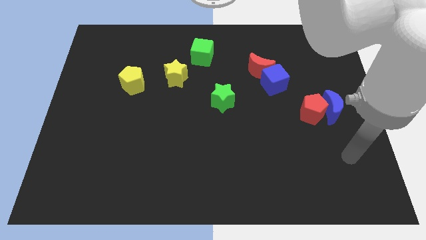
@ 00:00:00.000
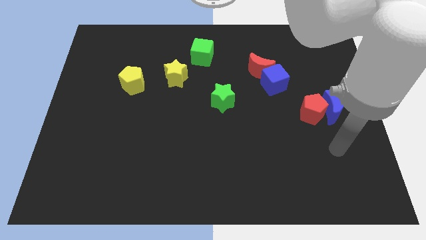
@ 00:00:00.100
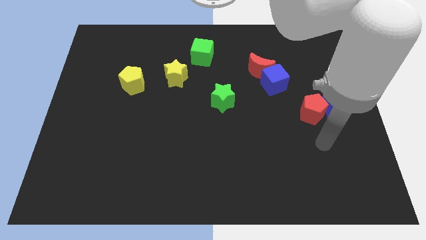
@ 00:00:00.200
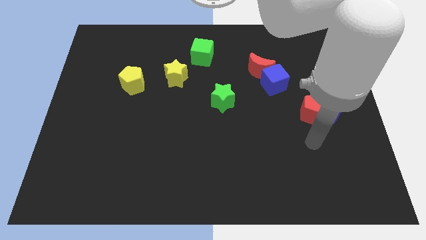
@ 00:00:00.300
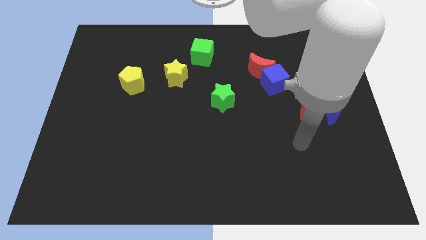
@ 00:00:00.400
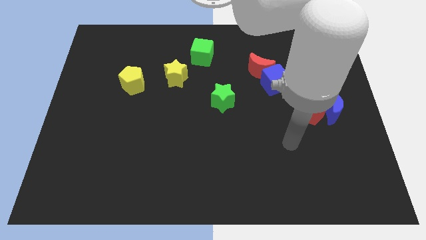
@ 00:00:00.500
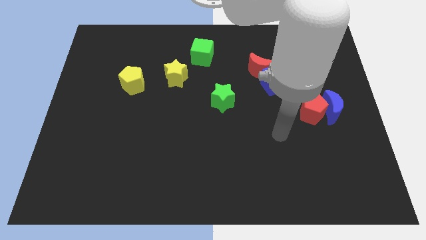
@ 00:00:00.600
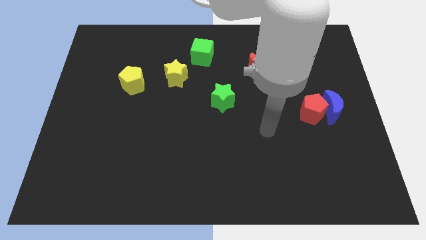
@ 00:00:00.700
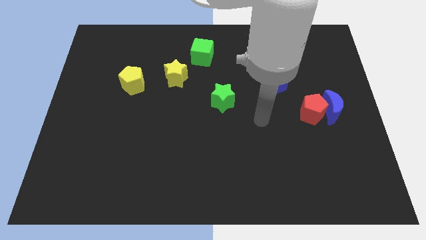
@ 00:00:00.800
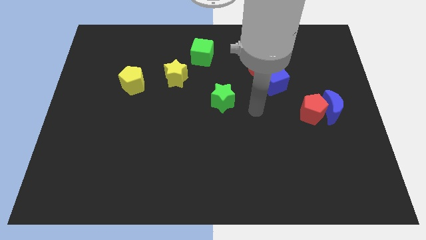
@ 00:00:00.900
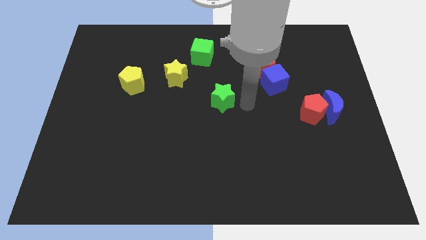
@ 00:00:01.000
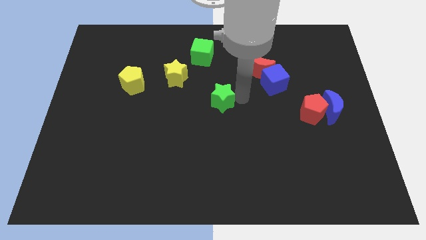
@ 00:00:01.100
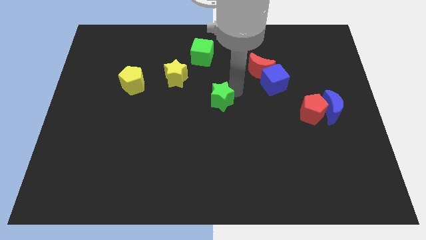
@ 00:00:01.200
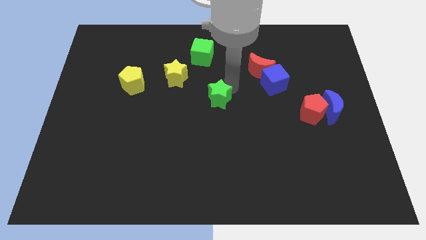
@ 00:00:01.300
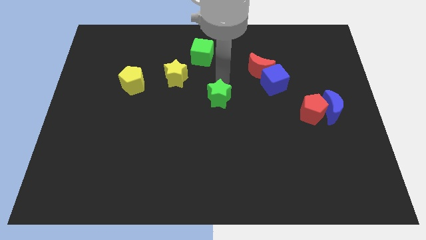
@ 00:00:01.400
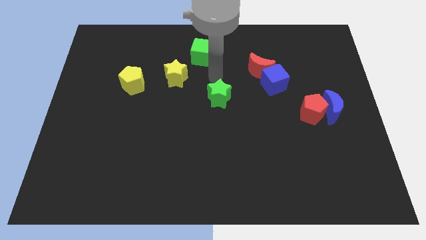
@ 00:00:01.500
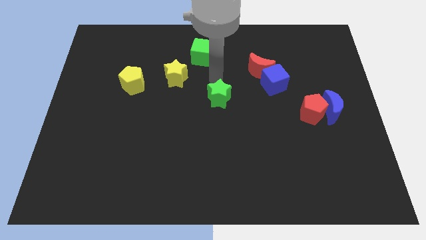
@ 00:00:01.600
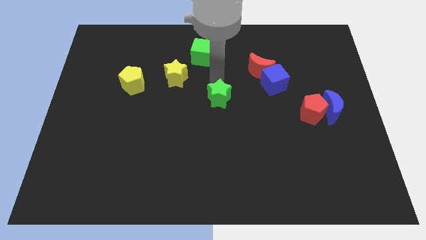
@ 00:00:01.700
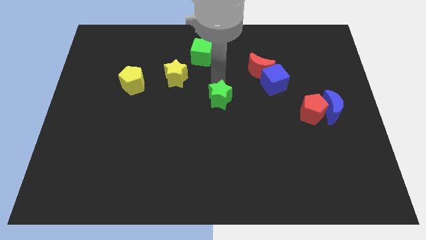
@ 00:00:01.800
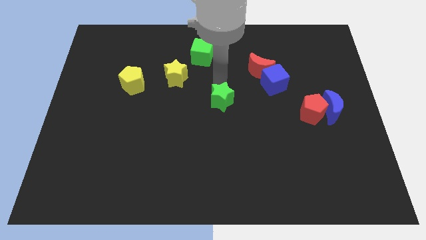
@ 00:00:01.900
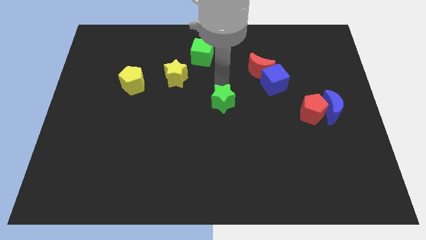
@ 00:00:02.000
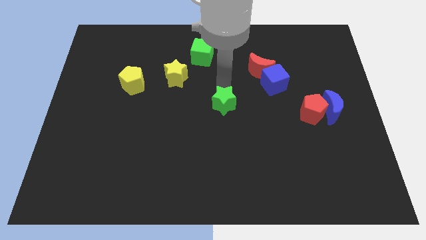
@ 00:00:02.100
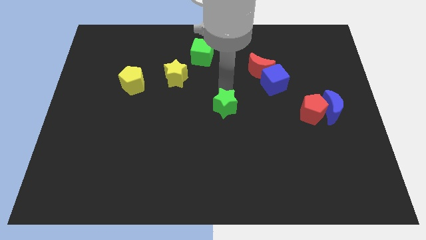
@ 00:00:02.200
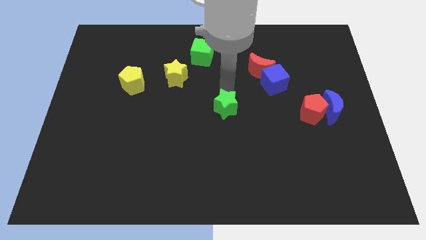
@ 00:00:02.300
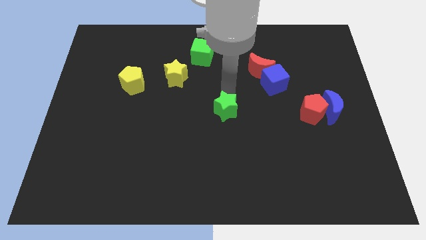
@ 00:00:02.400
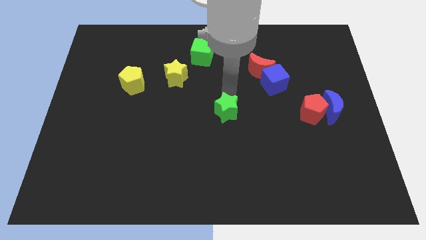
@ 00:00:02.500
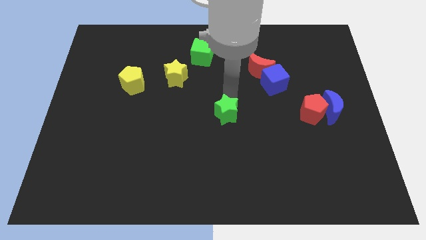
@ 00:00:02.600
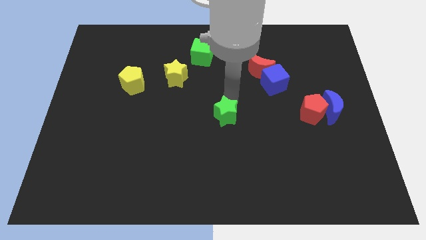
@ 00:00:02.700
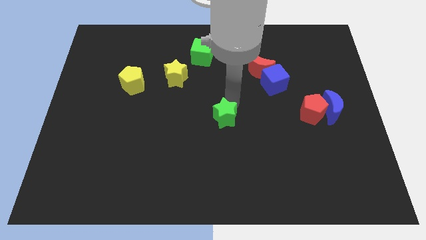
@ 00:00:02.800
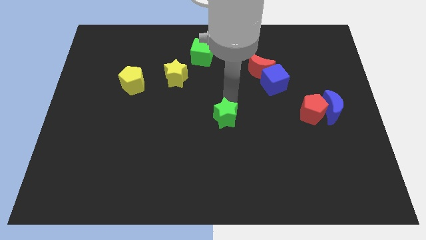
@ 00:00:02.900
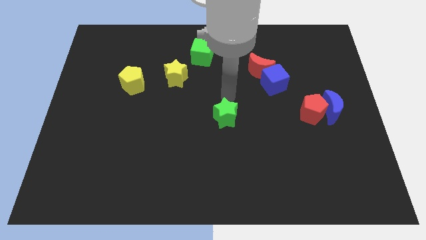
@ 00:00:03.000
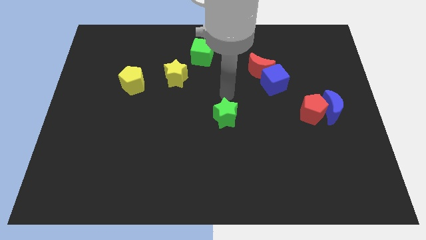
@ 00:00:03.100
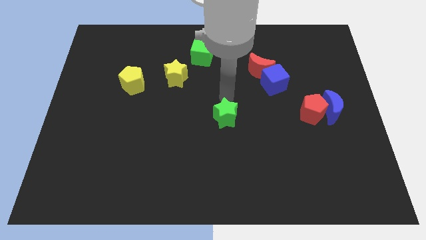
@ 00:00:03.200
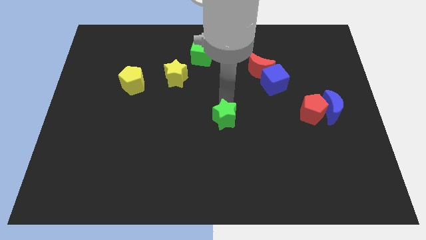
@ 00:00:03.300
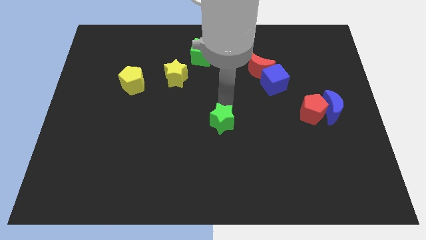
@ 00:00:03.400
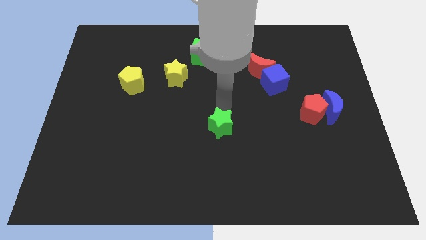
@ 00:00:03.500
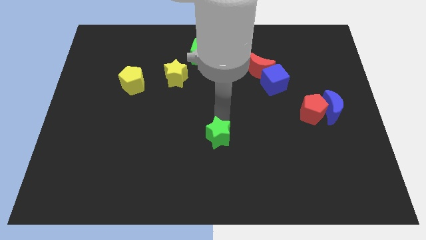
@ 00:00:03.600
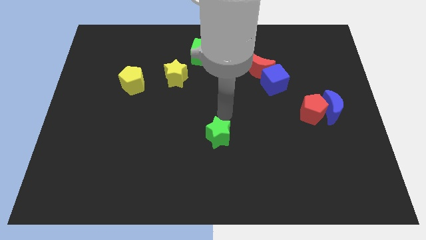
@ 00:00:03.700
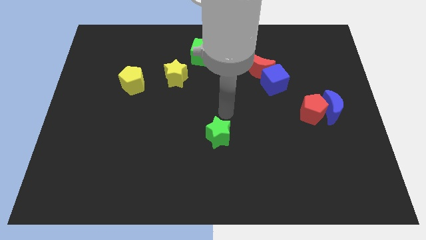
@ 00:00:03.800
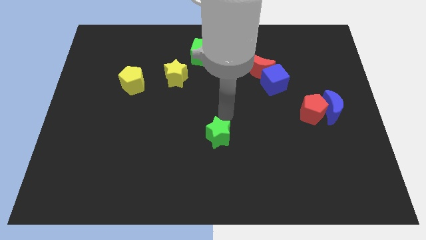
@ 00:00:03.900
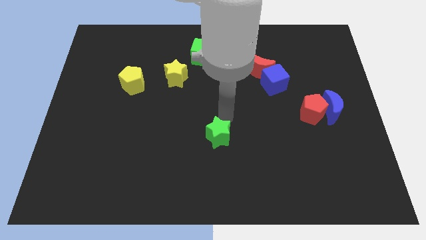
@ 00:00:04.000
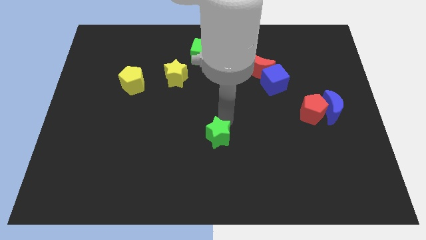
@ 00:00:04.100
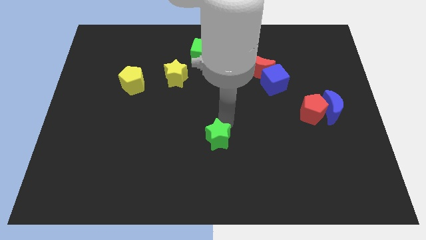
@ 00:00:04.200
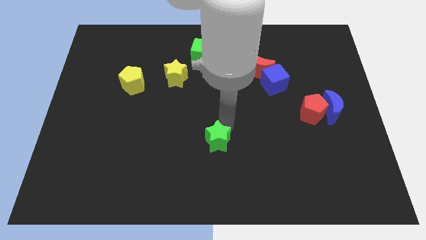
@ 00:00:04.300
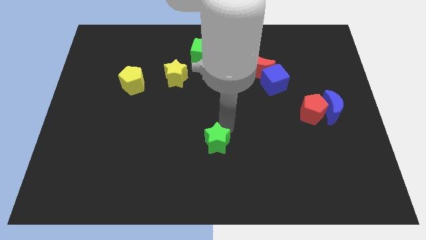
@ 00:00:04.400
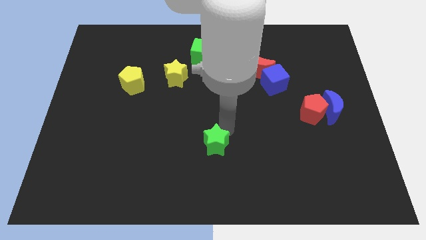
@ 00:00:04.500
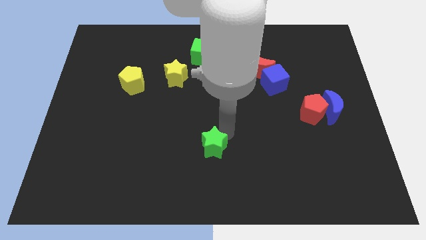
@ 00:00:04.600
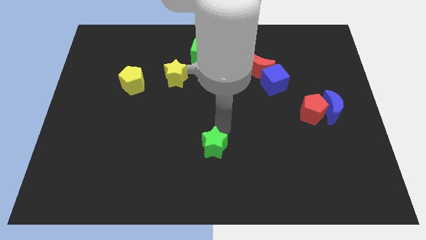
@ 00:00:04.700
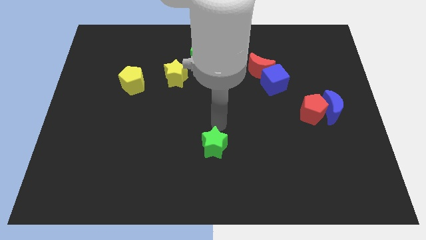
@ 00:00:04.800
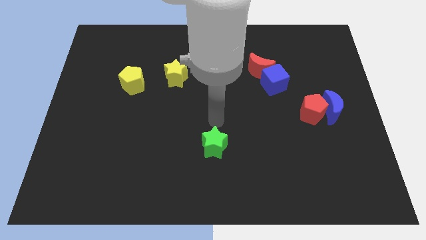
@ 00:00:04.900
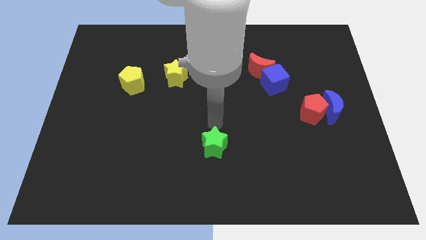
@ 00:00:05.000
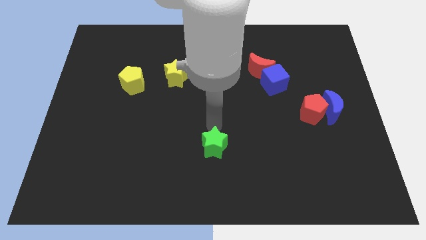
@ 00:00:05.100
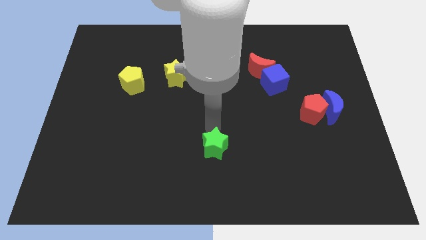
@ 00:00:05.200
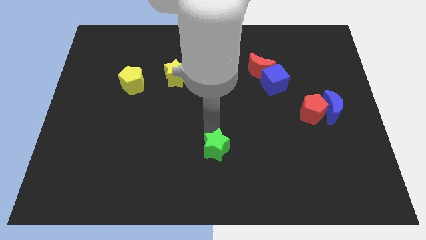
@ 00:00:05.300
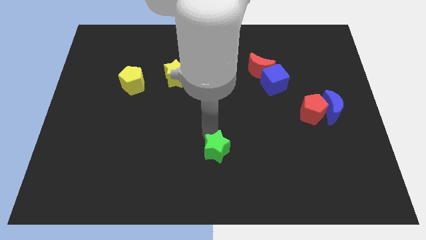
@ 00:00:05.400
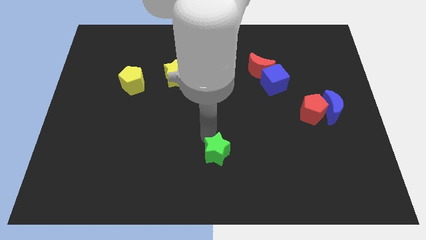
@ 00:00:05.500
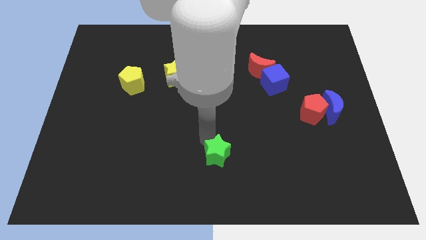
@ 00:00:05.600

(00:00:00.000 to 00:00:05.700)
push the green star to the bottom

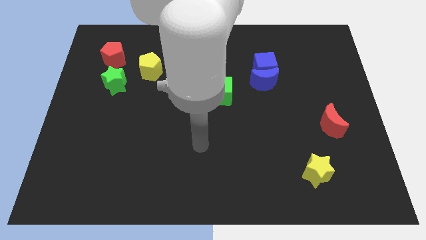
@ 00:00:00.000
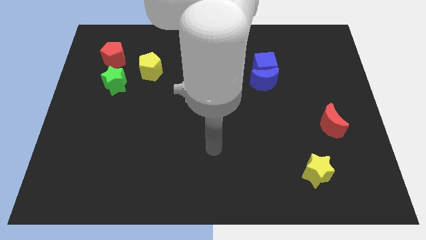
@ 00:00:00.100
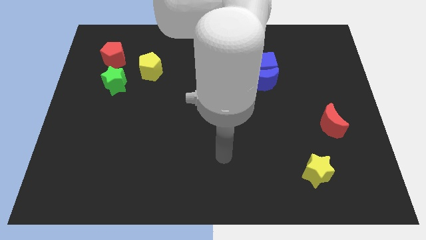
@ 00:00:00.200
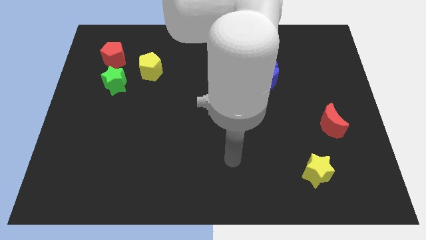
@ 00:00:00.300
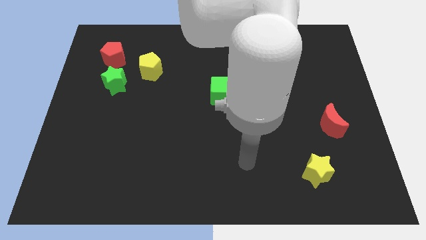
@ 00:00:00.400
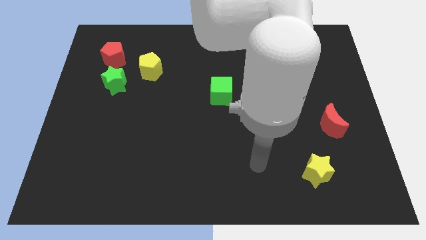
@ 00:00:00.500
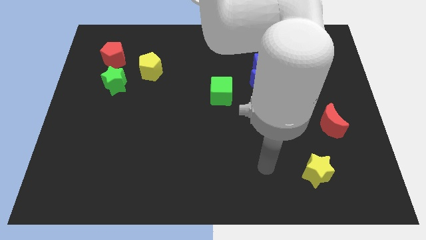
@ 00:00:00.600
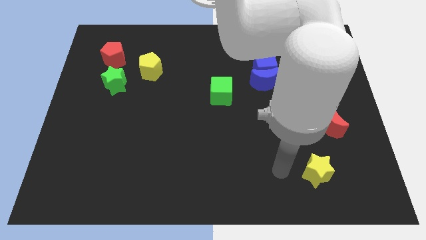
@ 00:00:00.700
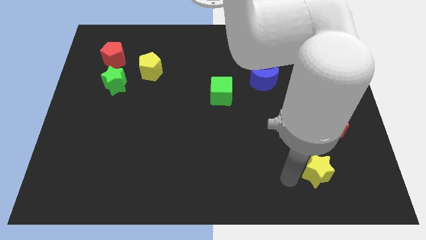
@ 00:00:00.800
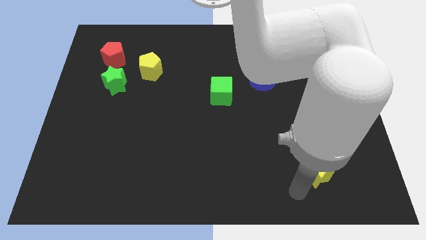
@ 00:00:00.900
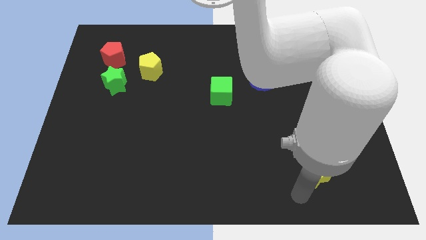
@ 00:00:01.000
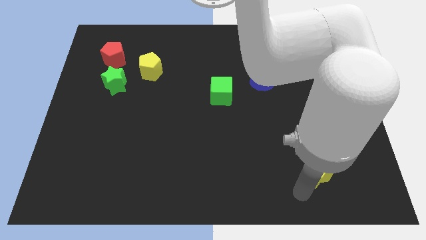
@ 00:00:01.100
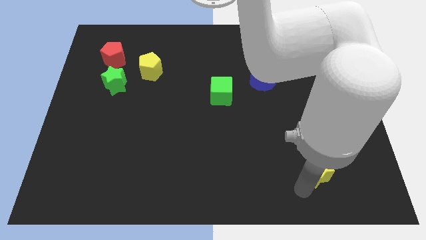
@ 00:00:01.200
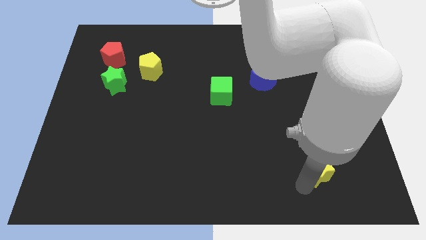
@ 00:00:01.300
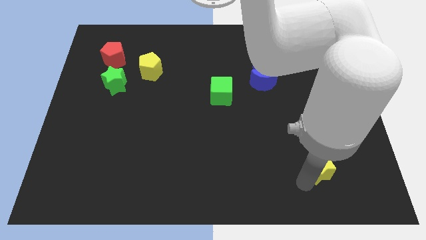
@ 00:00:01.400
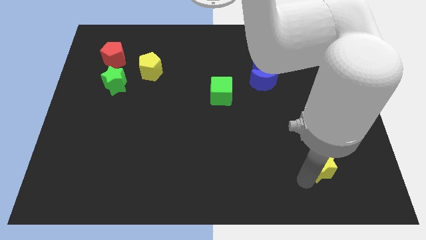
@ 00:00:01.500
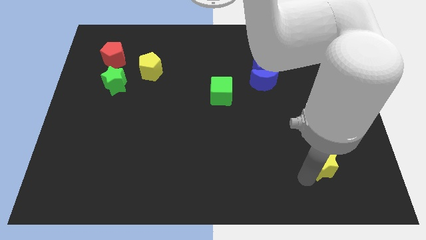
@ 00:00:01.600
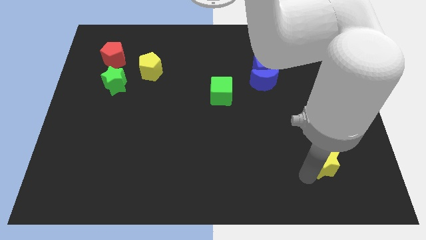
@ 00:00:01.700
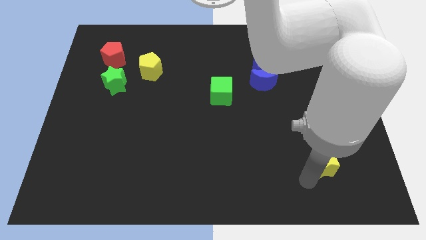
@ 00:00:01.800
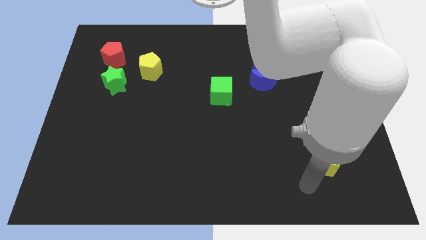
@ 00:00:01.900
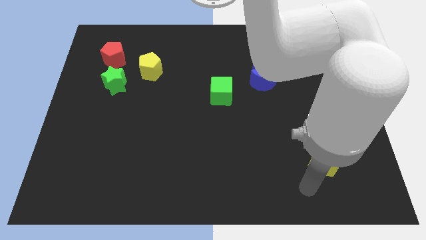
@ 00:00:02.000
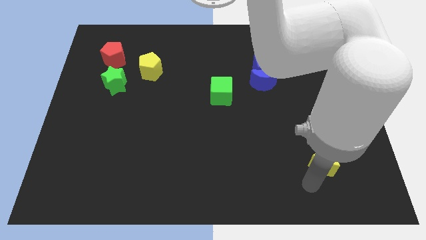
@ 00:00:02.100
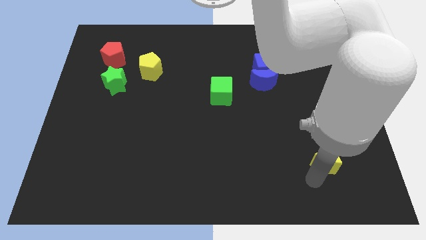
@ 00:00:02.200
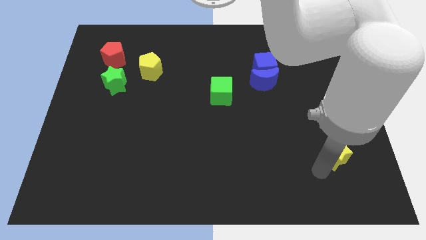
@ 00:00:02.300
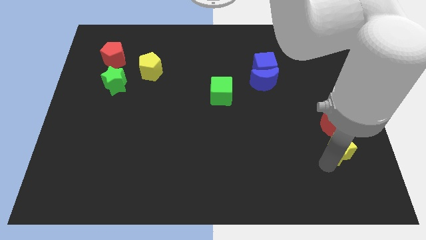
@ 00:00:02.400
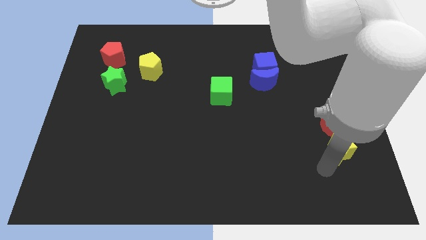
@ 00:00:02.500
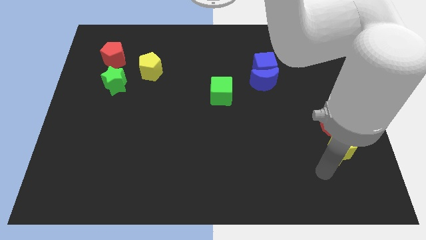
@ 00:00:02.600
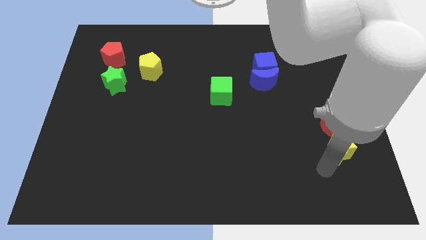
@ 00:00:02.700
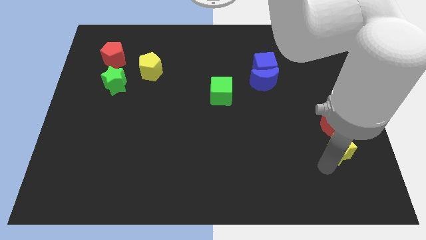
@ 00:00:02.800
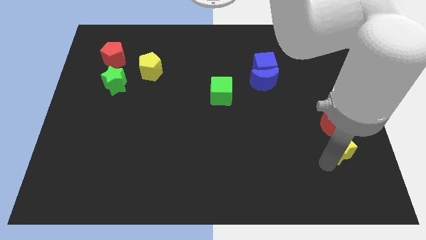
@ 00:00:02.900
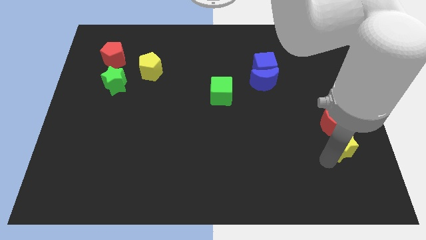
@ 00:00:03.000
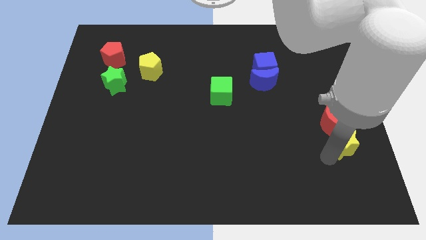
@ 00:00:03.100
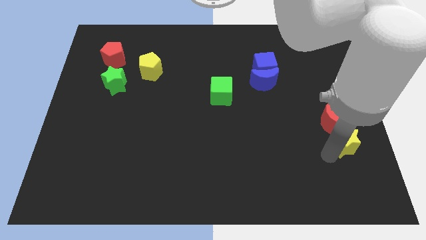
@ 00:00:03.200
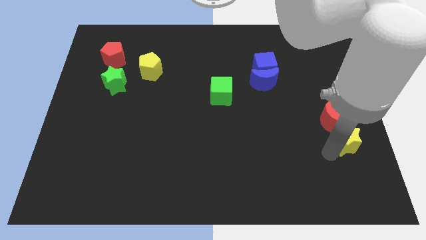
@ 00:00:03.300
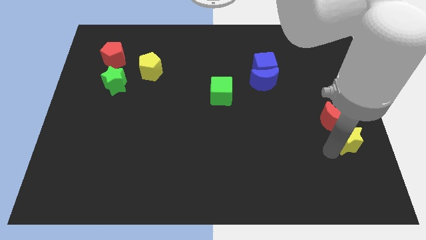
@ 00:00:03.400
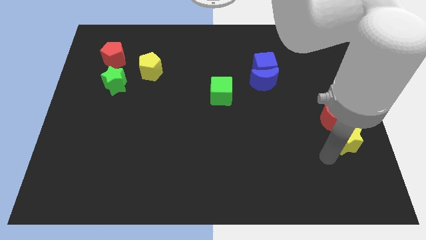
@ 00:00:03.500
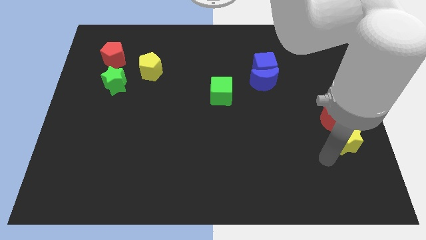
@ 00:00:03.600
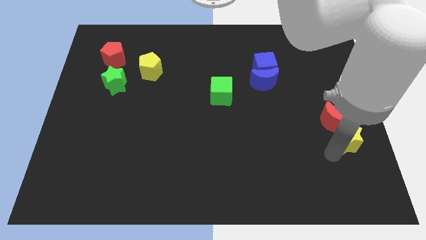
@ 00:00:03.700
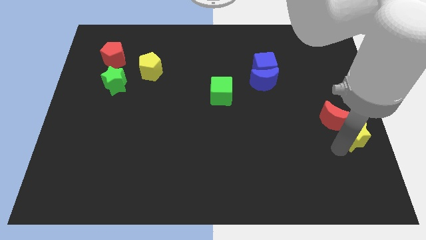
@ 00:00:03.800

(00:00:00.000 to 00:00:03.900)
slide the yellow star to the right side
